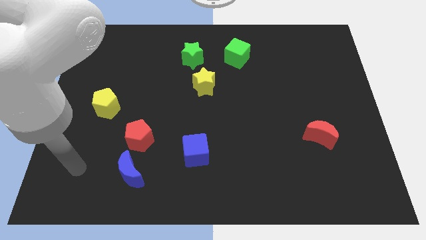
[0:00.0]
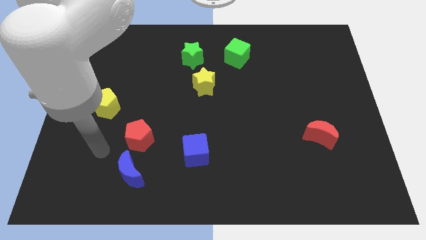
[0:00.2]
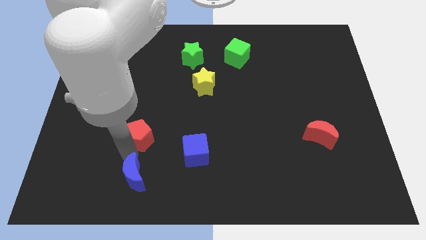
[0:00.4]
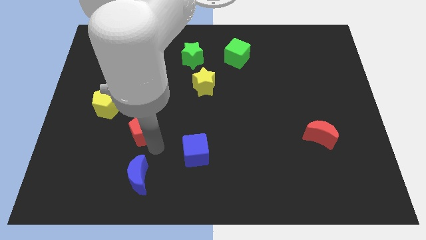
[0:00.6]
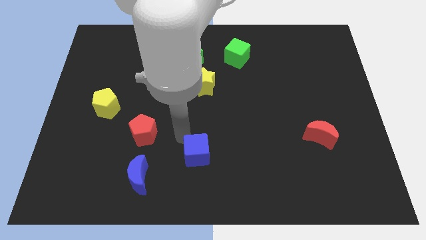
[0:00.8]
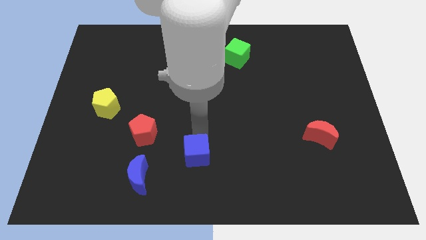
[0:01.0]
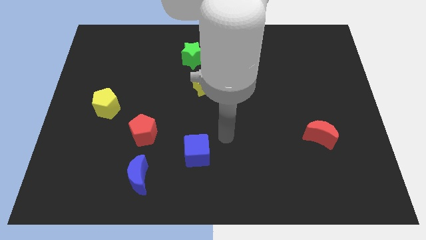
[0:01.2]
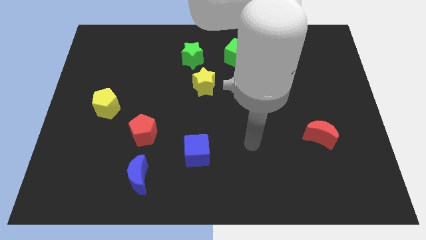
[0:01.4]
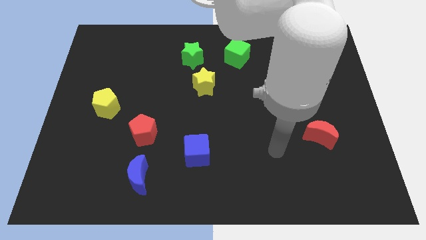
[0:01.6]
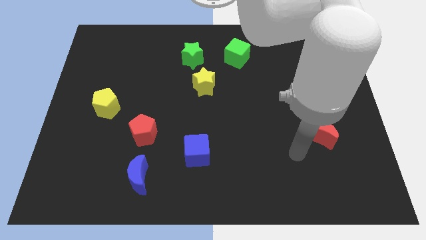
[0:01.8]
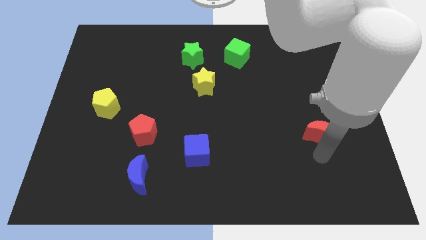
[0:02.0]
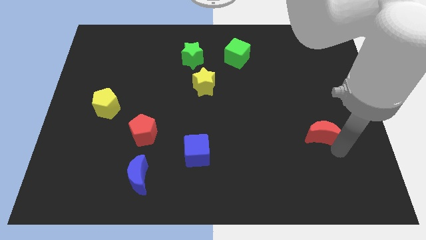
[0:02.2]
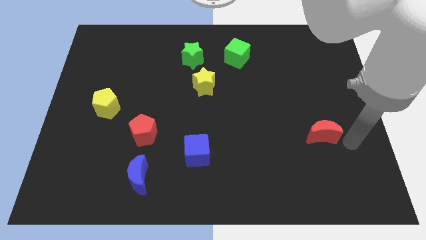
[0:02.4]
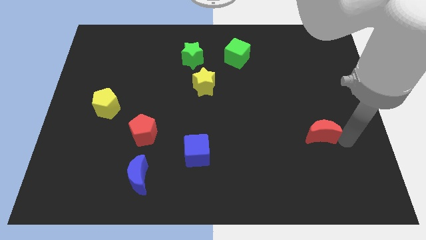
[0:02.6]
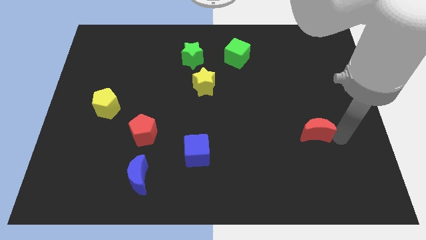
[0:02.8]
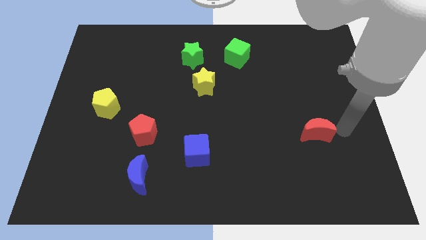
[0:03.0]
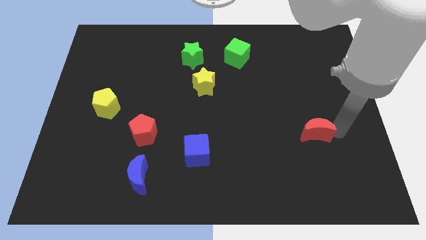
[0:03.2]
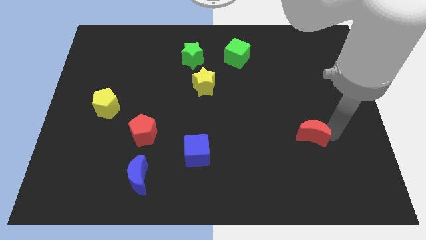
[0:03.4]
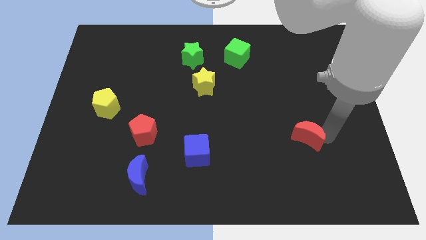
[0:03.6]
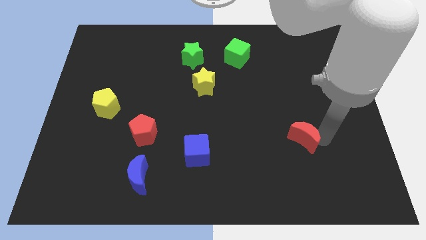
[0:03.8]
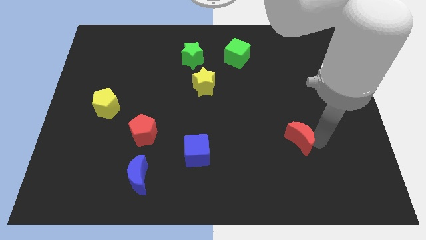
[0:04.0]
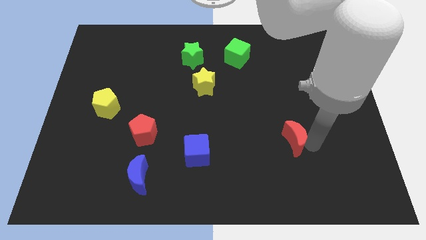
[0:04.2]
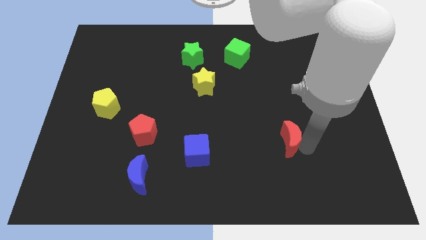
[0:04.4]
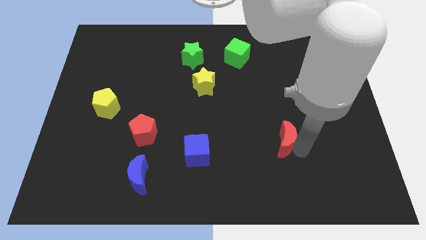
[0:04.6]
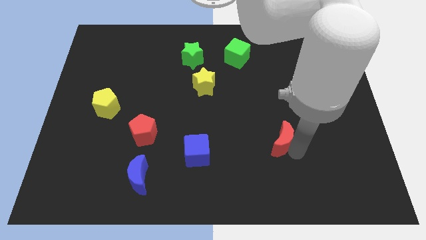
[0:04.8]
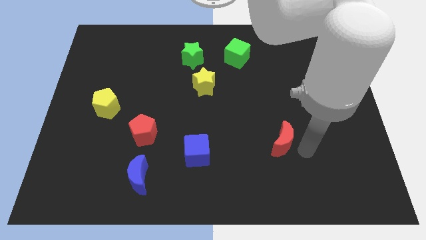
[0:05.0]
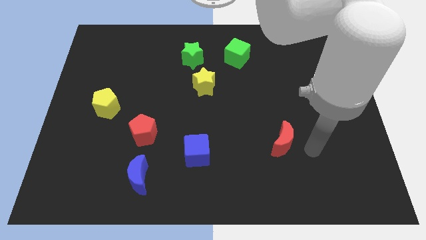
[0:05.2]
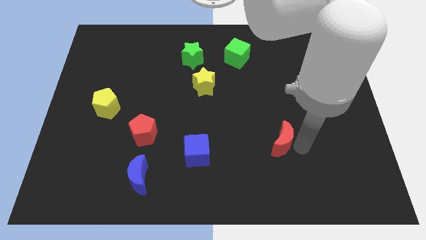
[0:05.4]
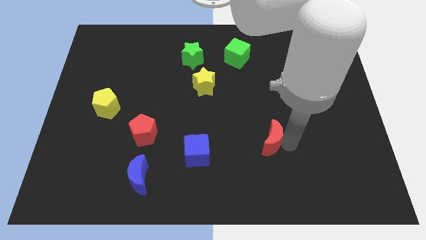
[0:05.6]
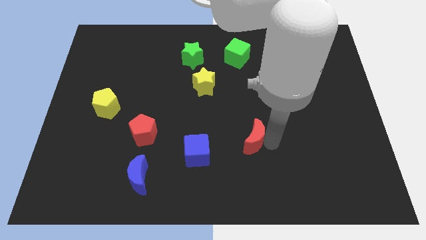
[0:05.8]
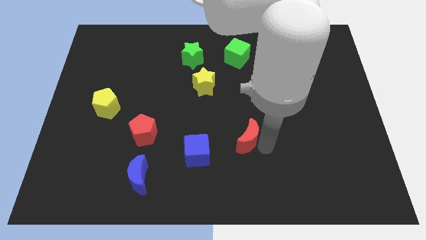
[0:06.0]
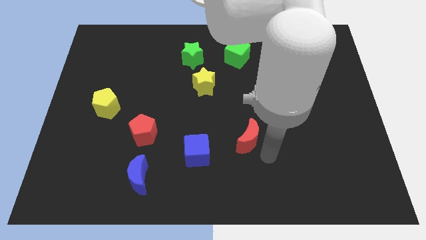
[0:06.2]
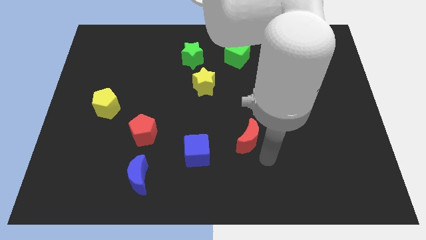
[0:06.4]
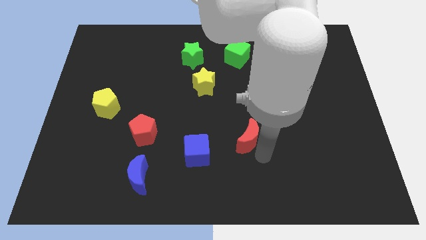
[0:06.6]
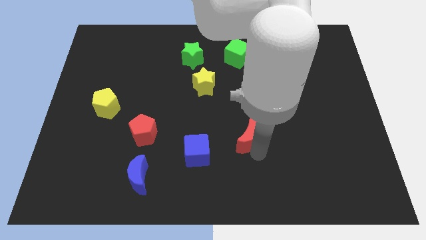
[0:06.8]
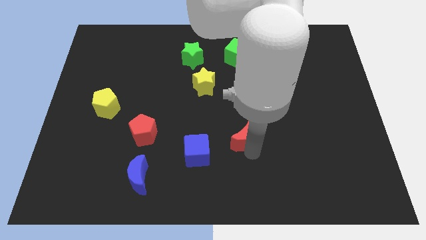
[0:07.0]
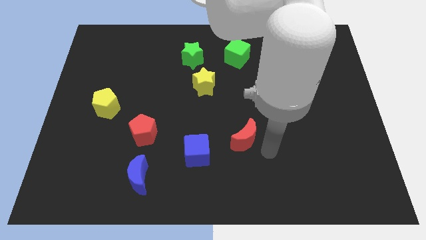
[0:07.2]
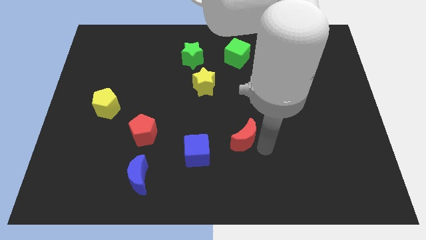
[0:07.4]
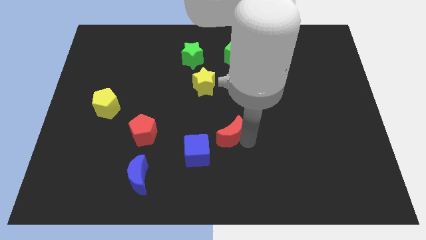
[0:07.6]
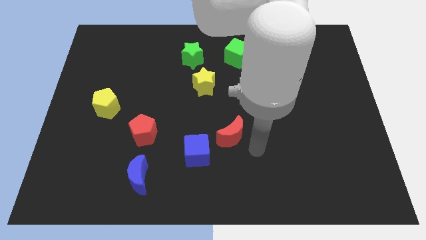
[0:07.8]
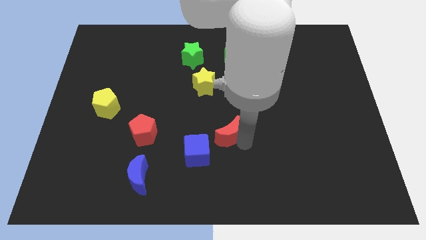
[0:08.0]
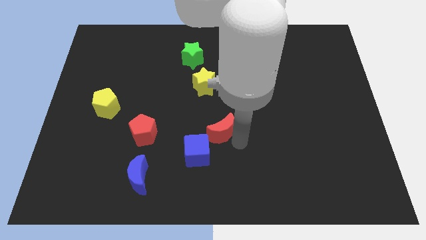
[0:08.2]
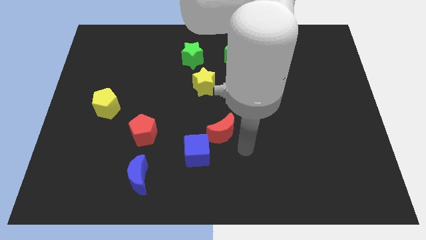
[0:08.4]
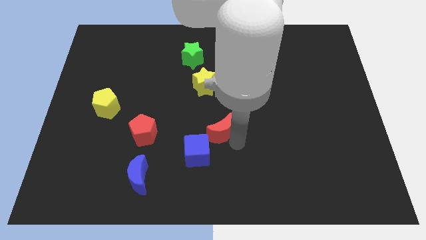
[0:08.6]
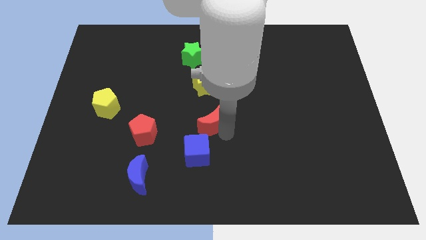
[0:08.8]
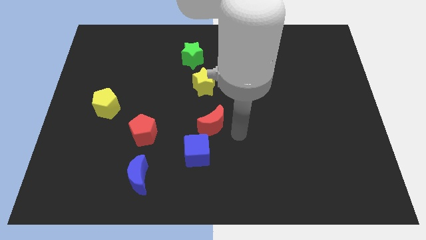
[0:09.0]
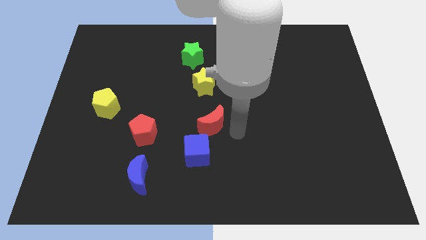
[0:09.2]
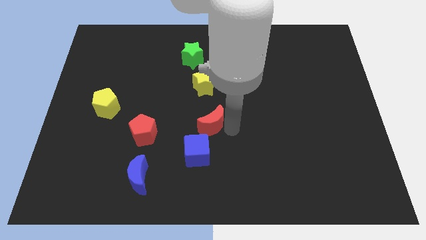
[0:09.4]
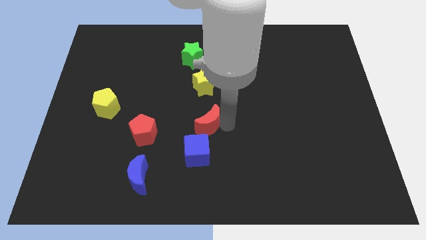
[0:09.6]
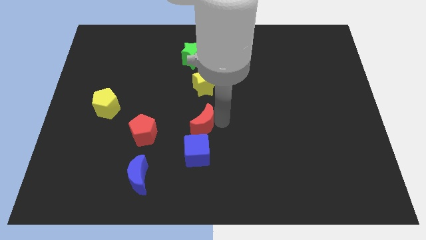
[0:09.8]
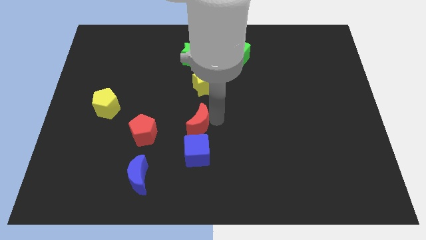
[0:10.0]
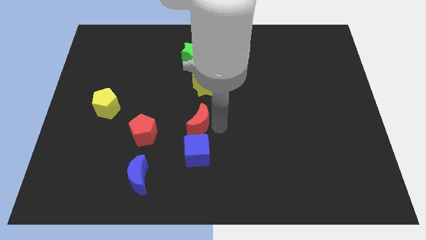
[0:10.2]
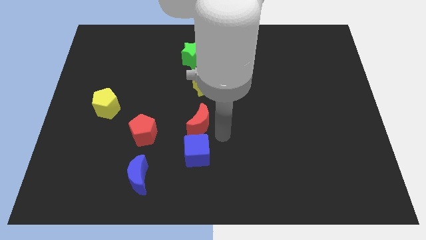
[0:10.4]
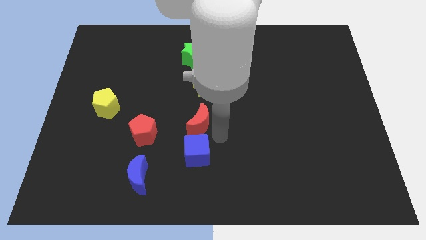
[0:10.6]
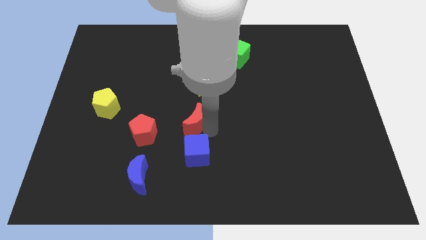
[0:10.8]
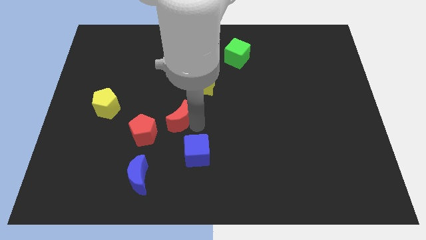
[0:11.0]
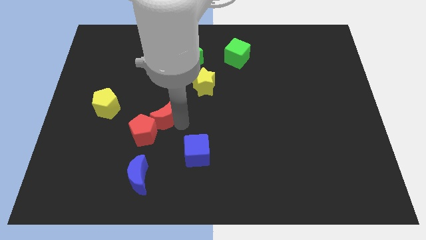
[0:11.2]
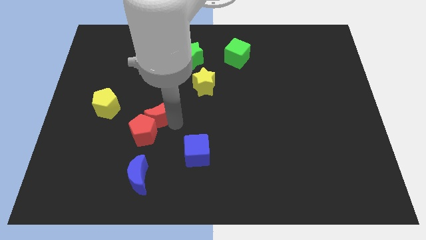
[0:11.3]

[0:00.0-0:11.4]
push the red moon to the top of the red pentagon

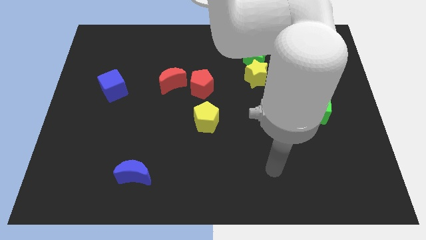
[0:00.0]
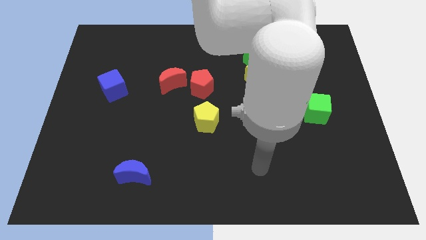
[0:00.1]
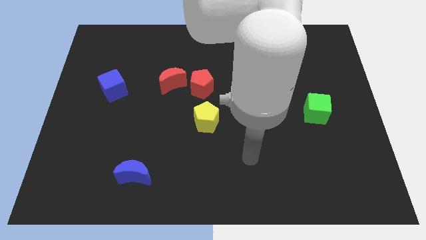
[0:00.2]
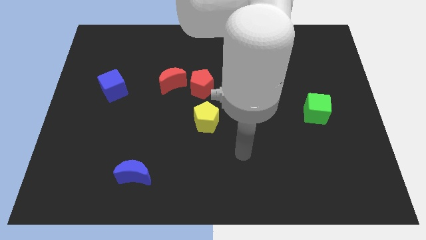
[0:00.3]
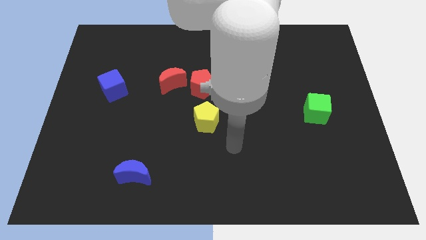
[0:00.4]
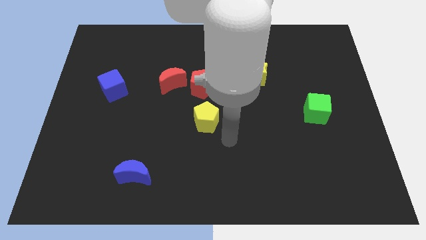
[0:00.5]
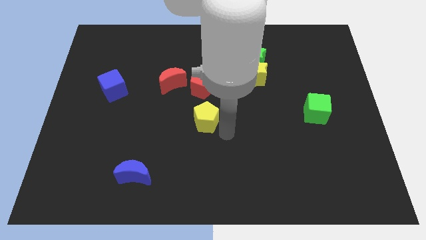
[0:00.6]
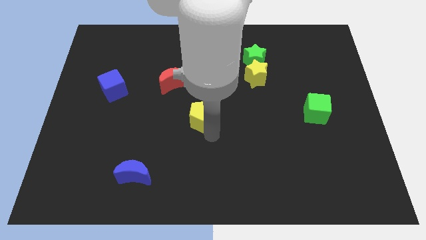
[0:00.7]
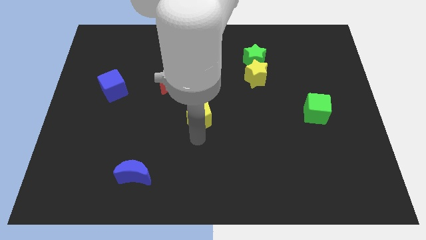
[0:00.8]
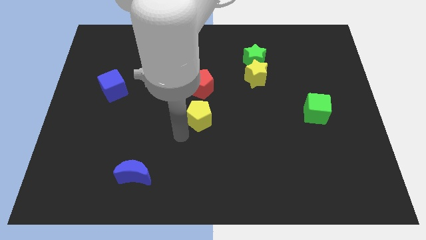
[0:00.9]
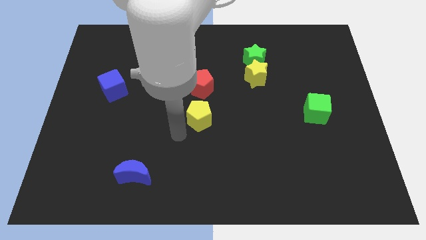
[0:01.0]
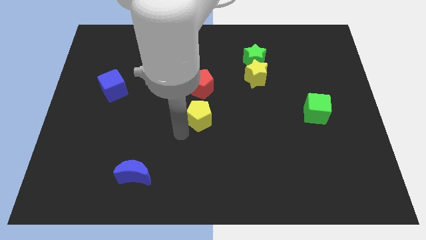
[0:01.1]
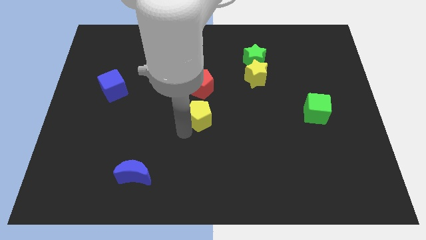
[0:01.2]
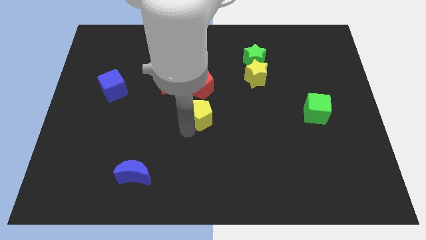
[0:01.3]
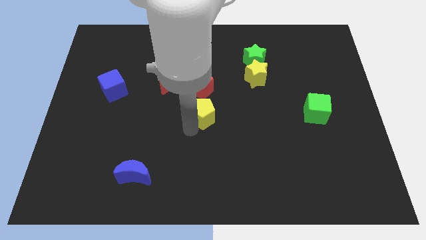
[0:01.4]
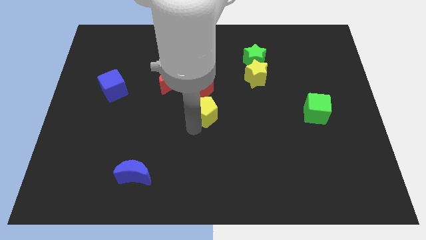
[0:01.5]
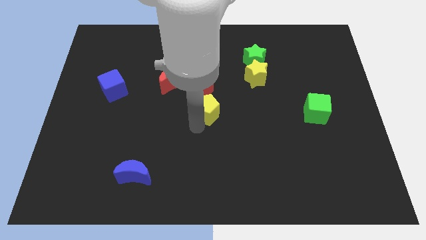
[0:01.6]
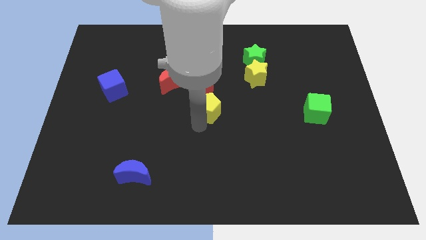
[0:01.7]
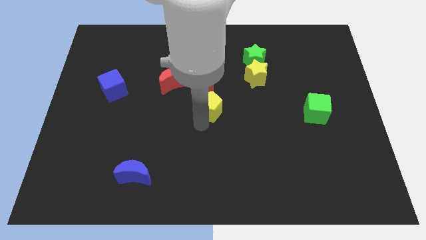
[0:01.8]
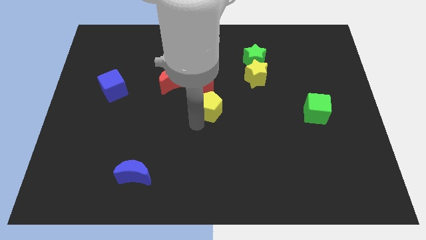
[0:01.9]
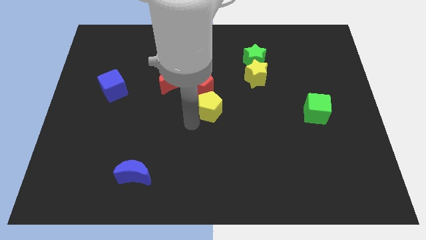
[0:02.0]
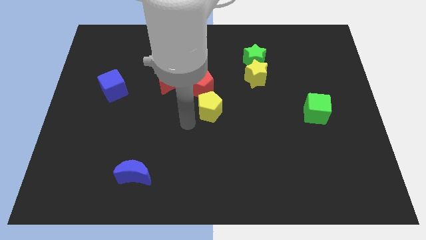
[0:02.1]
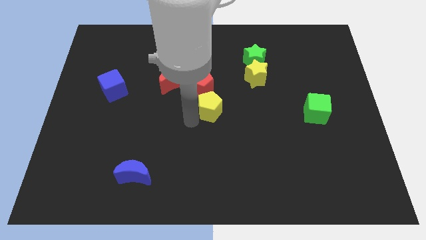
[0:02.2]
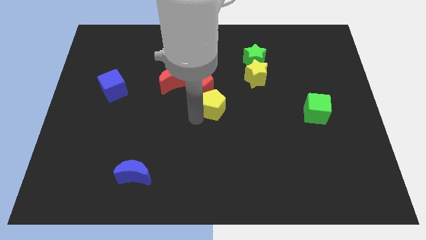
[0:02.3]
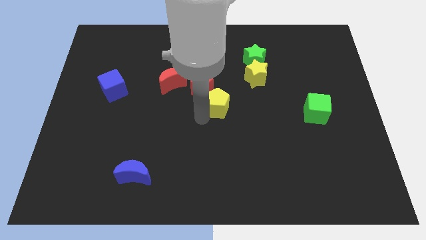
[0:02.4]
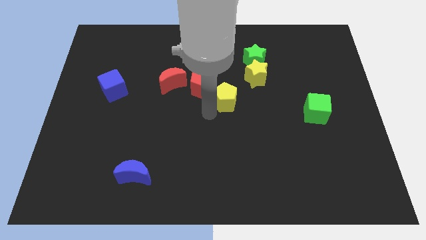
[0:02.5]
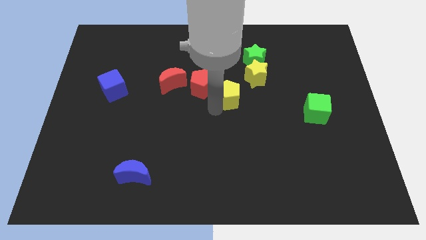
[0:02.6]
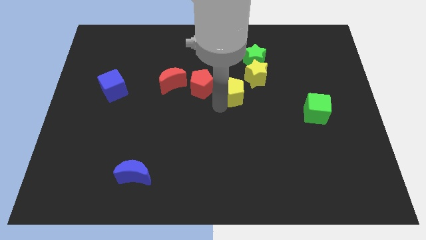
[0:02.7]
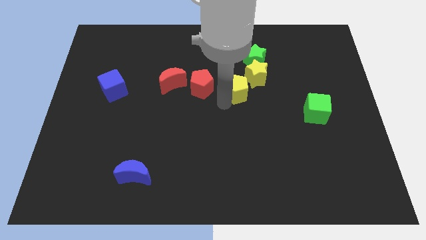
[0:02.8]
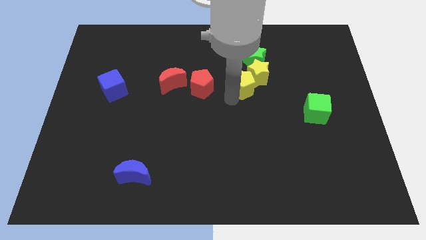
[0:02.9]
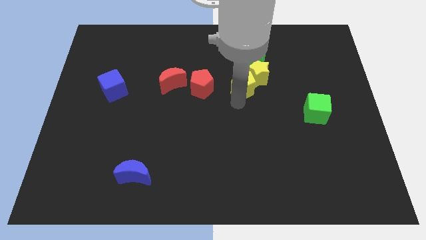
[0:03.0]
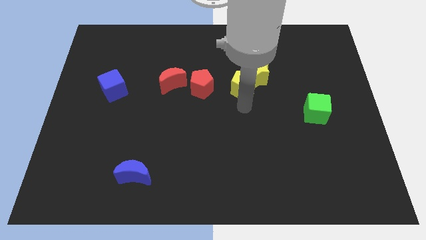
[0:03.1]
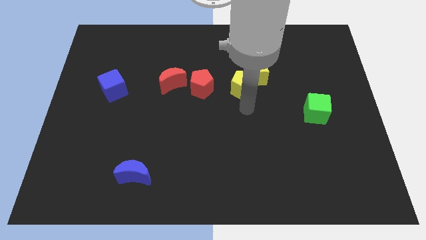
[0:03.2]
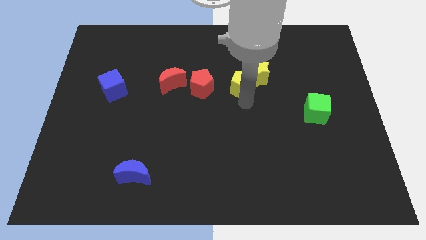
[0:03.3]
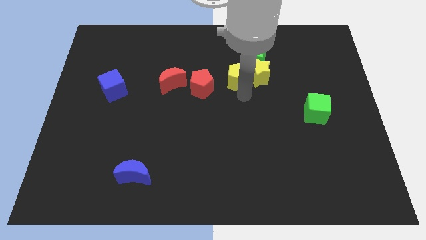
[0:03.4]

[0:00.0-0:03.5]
move the yellow pentagon diagonally up and to the left of the yellow star
